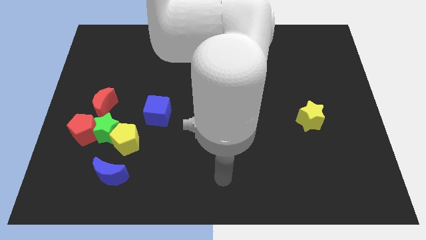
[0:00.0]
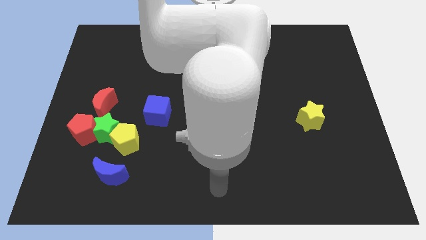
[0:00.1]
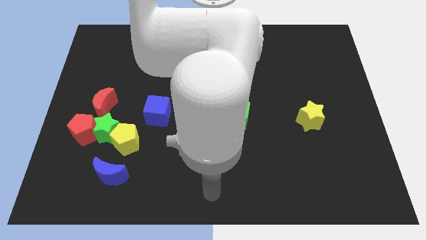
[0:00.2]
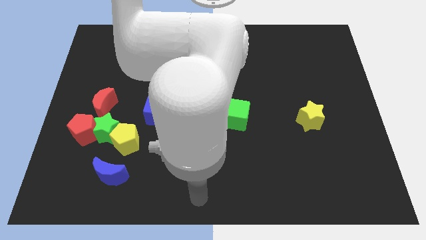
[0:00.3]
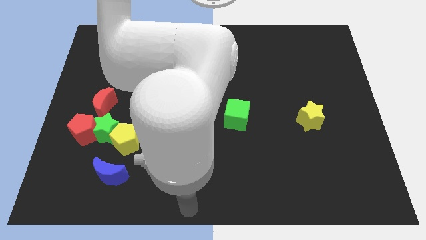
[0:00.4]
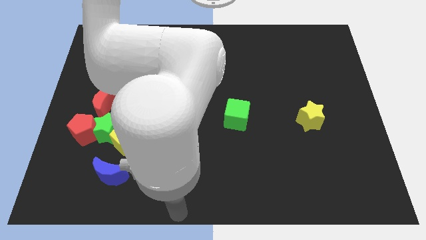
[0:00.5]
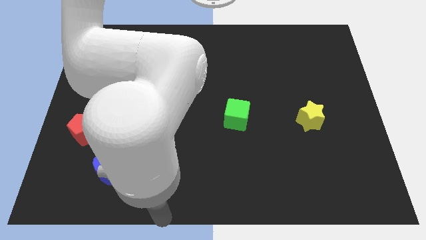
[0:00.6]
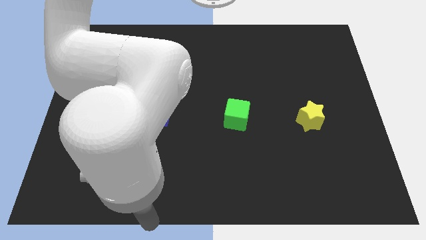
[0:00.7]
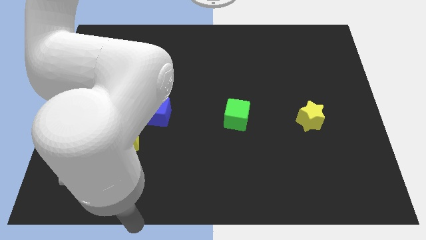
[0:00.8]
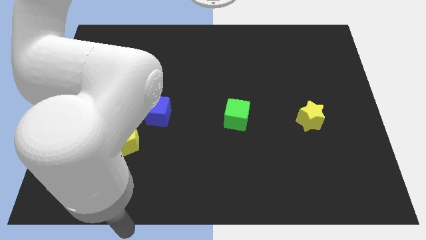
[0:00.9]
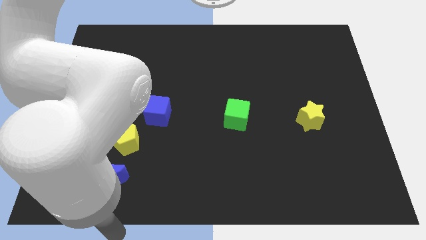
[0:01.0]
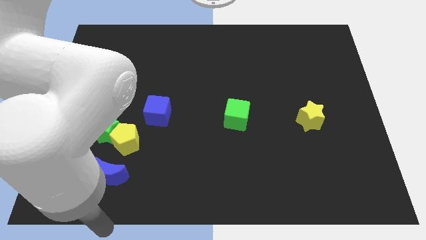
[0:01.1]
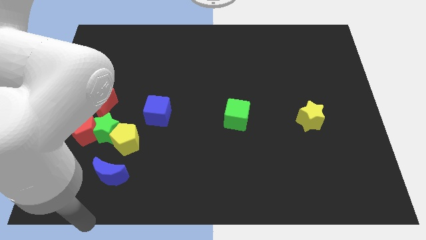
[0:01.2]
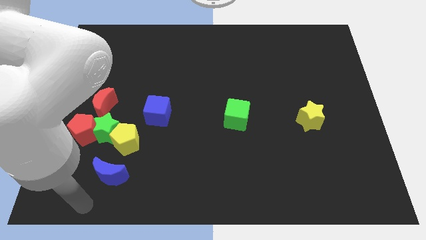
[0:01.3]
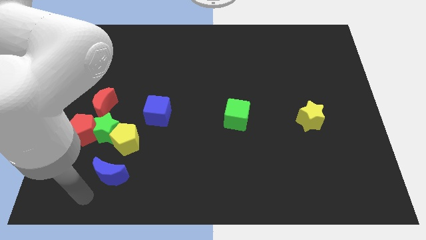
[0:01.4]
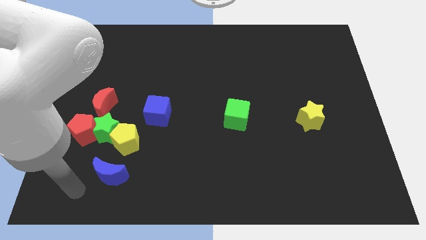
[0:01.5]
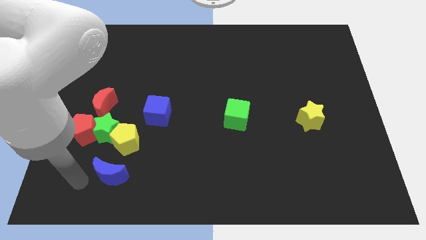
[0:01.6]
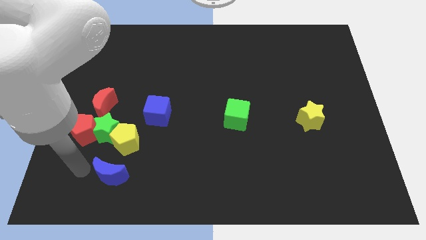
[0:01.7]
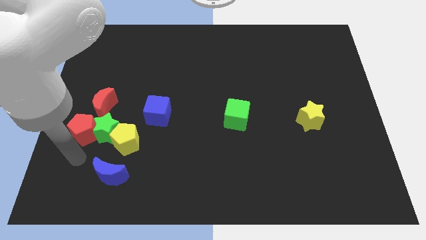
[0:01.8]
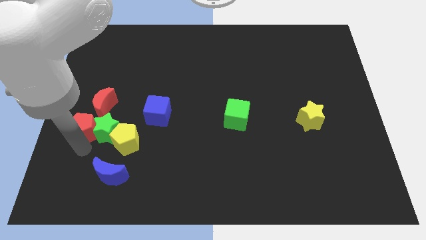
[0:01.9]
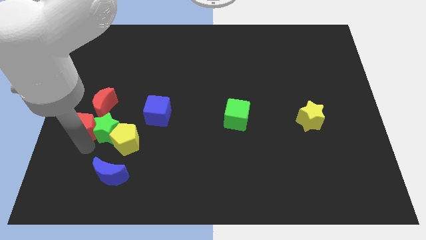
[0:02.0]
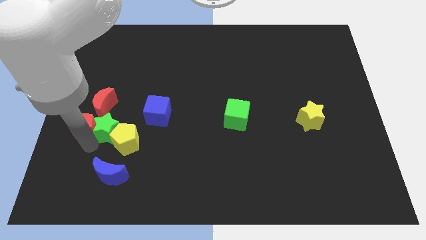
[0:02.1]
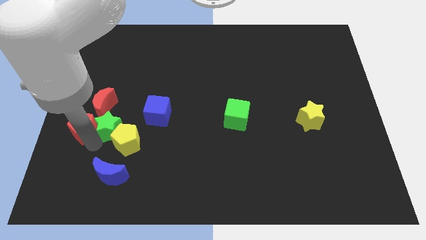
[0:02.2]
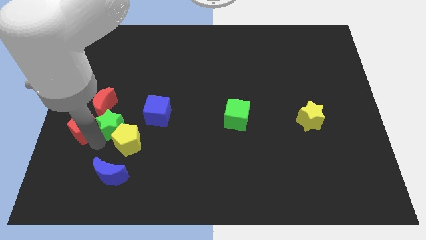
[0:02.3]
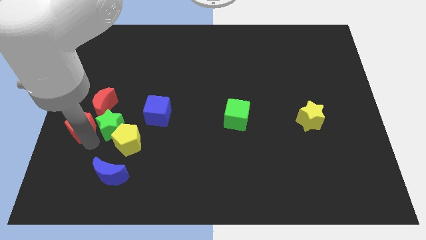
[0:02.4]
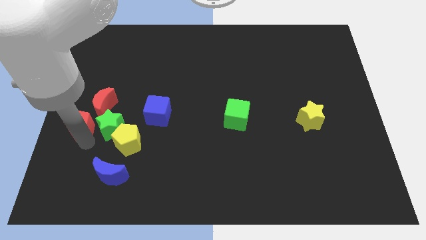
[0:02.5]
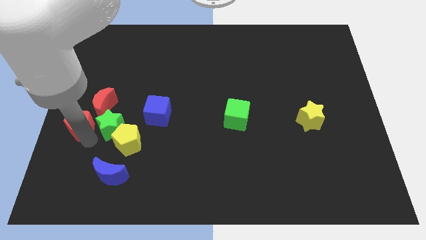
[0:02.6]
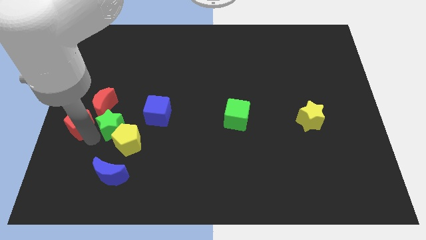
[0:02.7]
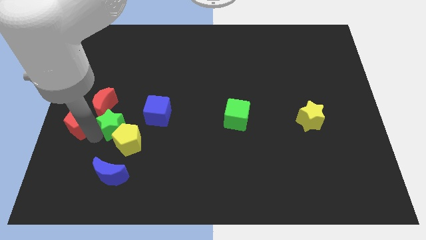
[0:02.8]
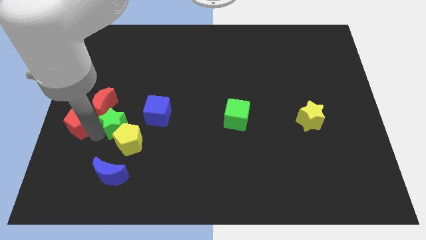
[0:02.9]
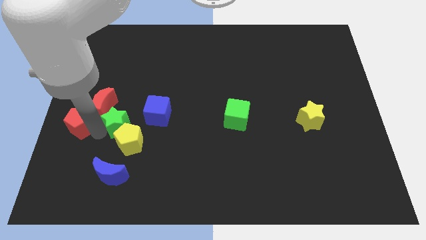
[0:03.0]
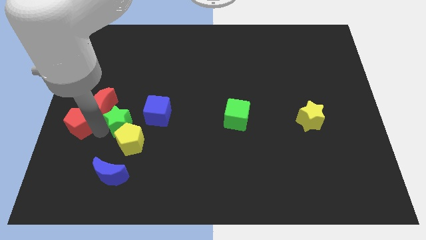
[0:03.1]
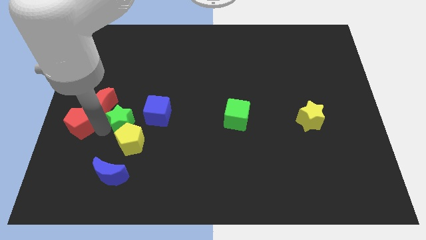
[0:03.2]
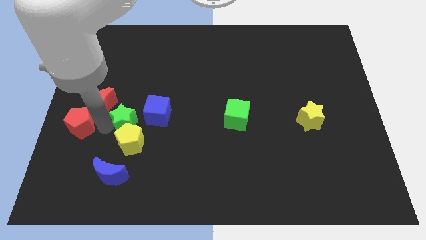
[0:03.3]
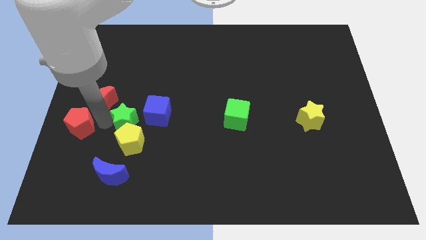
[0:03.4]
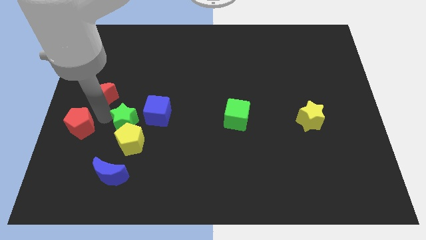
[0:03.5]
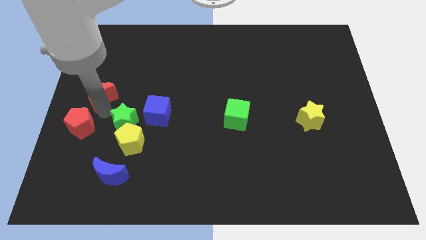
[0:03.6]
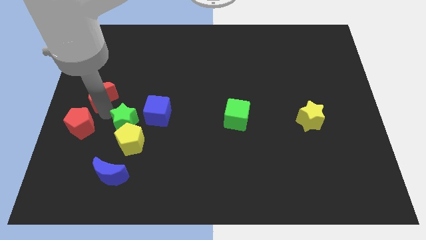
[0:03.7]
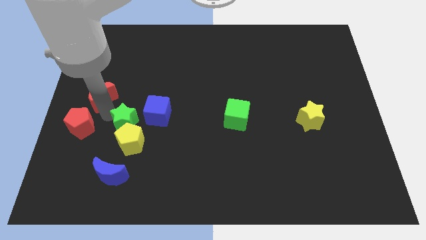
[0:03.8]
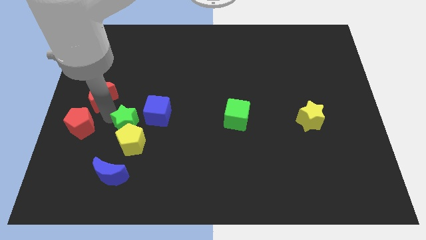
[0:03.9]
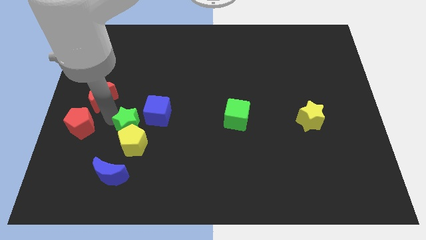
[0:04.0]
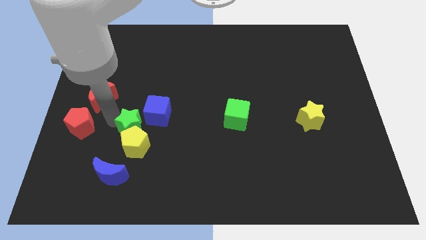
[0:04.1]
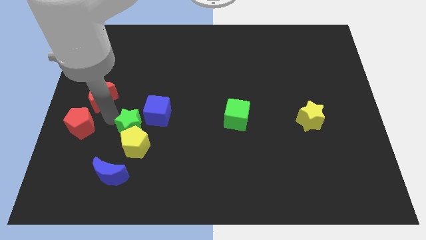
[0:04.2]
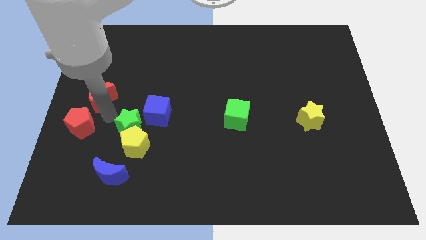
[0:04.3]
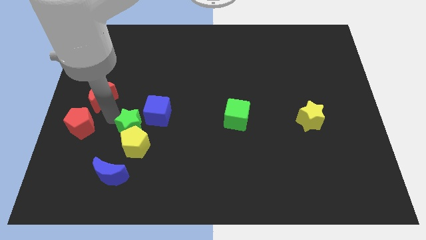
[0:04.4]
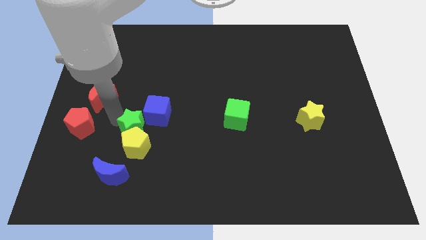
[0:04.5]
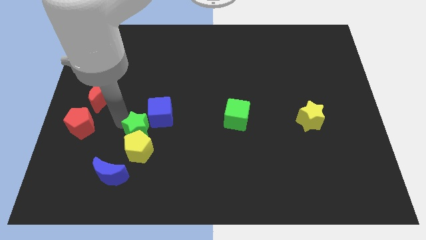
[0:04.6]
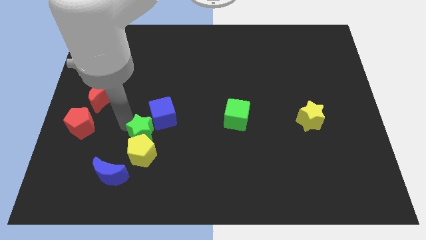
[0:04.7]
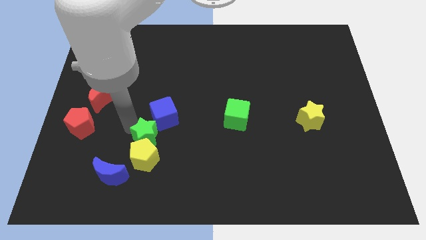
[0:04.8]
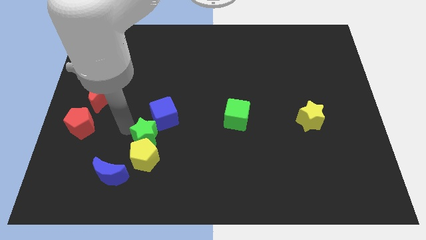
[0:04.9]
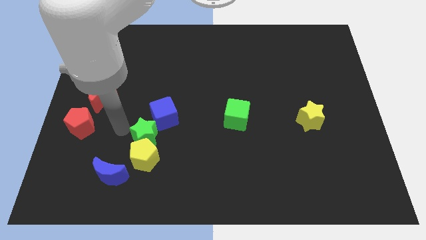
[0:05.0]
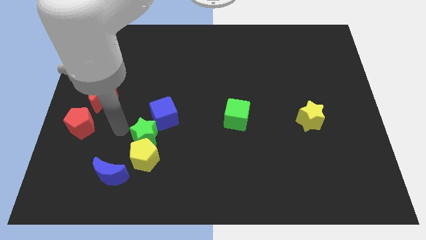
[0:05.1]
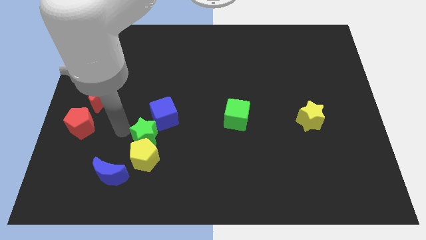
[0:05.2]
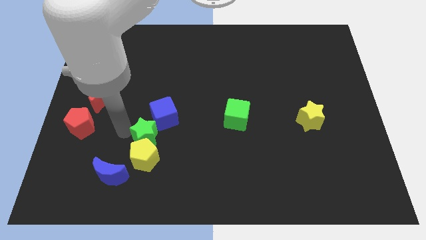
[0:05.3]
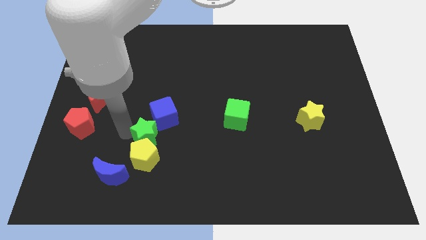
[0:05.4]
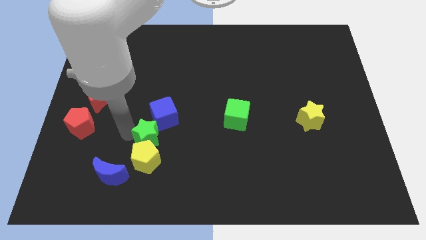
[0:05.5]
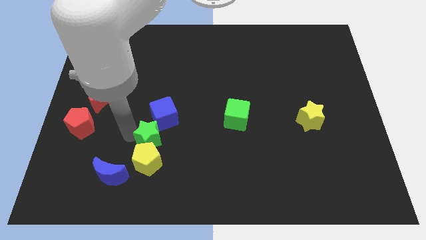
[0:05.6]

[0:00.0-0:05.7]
pull the green star apart from the group

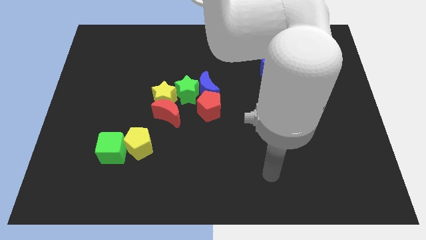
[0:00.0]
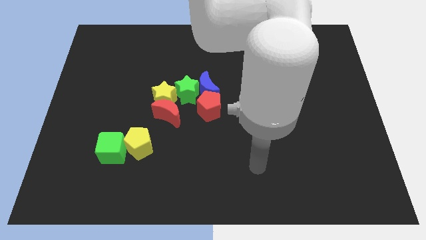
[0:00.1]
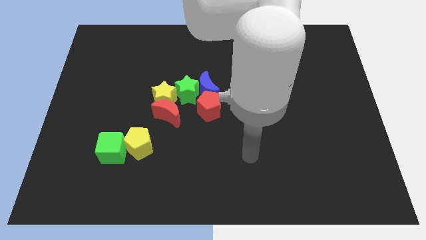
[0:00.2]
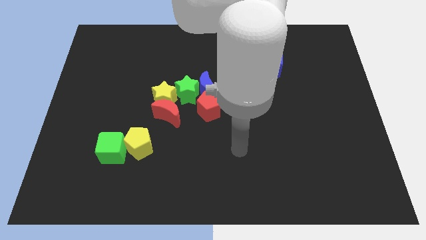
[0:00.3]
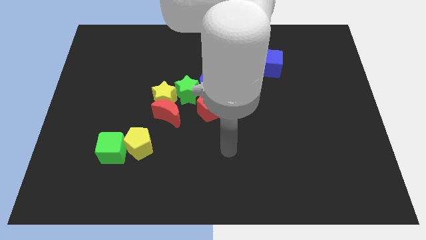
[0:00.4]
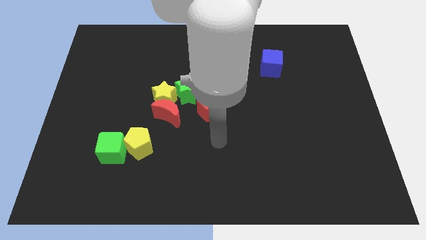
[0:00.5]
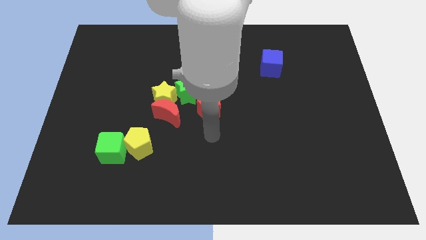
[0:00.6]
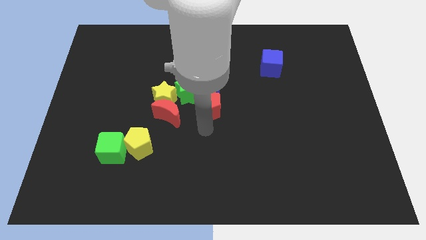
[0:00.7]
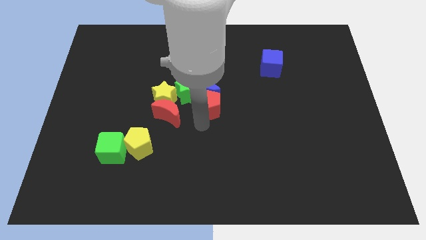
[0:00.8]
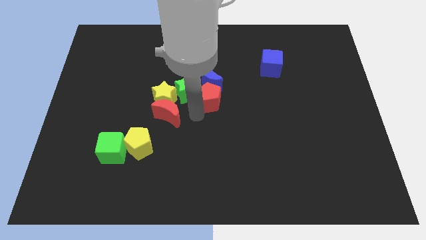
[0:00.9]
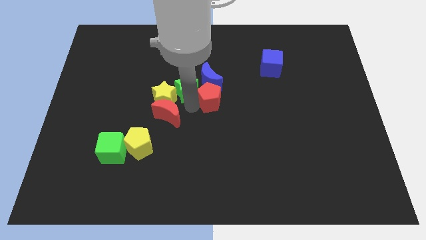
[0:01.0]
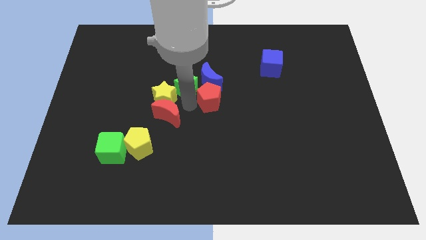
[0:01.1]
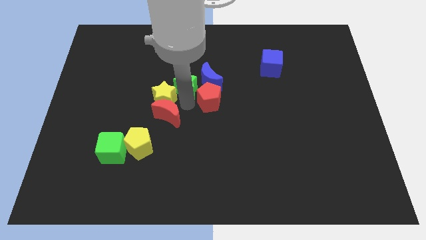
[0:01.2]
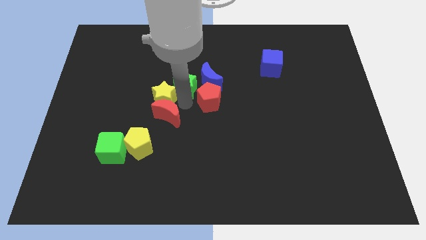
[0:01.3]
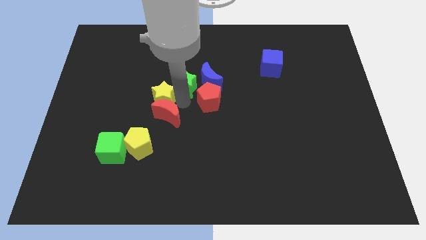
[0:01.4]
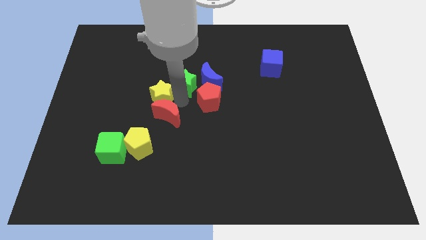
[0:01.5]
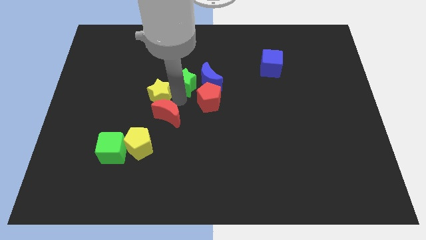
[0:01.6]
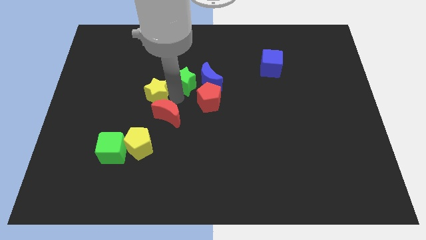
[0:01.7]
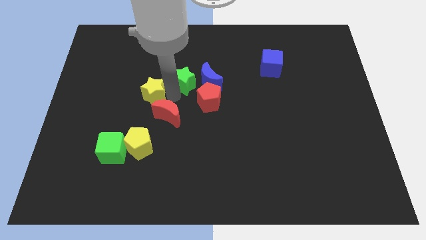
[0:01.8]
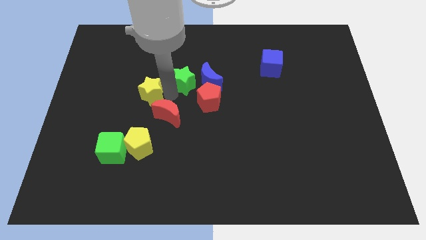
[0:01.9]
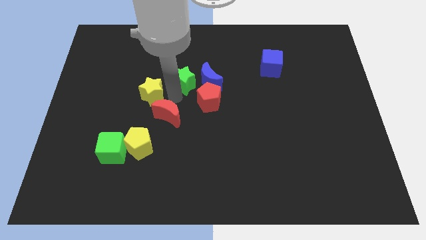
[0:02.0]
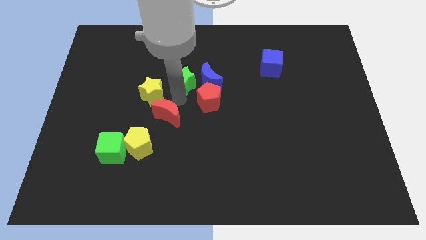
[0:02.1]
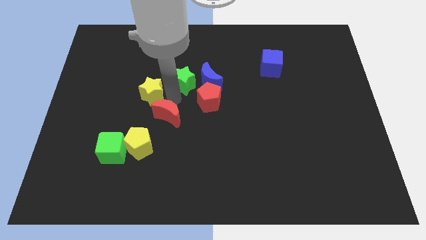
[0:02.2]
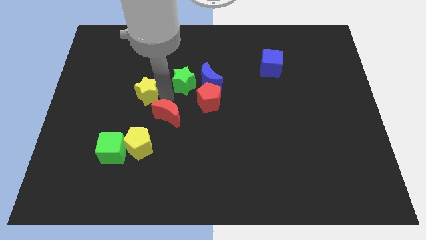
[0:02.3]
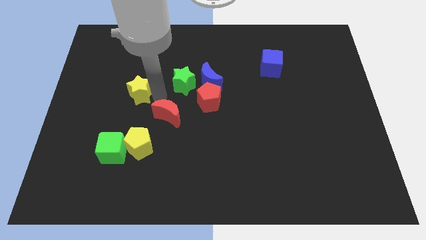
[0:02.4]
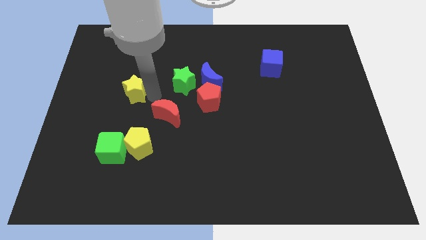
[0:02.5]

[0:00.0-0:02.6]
separate the yellow star from the red moon and green star

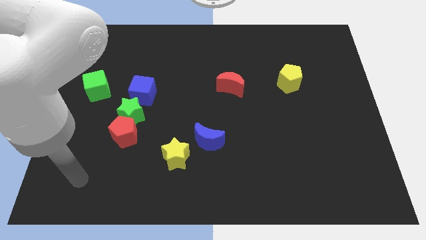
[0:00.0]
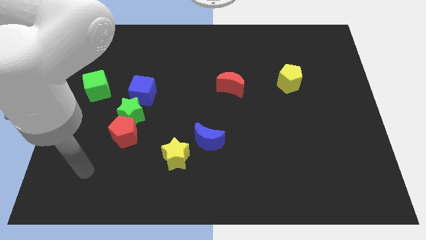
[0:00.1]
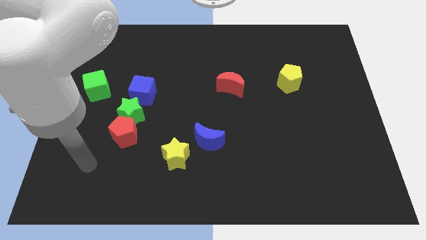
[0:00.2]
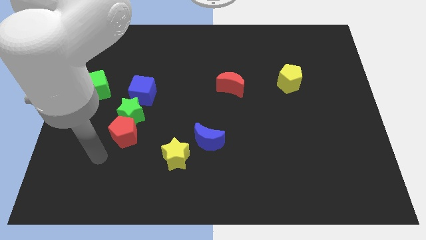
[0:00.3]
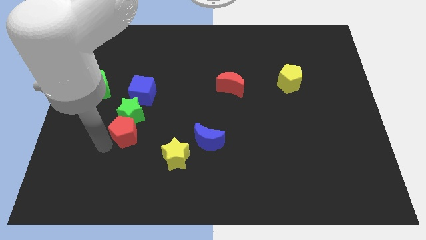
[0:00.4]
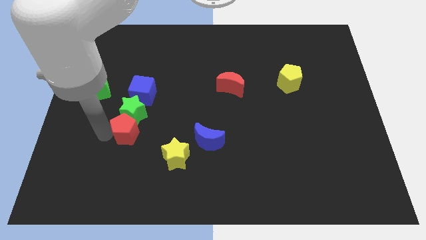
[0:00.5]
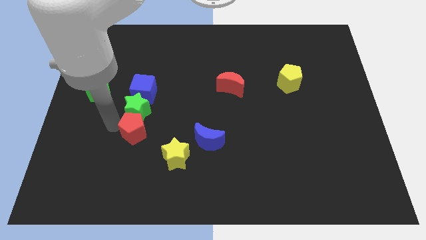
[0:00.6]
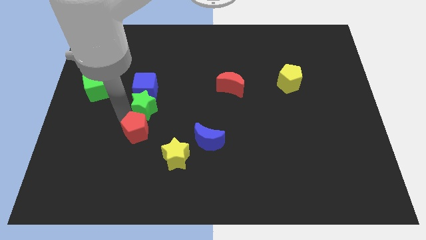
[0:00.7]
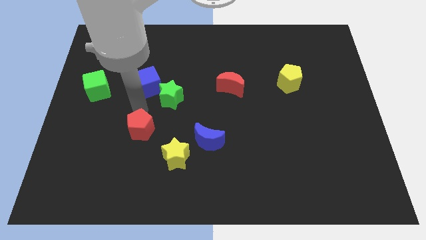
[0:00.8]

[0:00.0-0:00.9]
pull the red pentagon apart from the green star

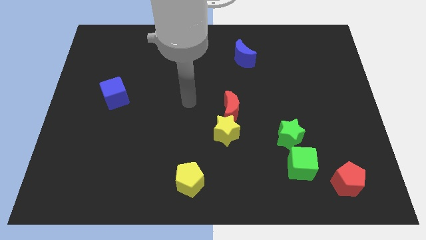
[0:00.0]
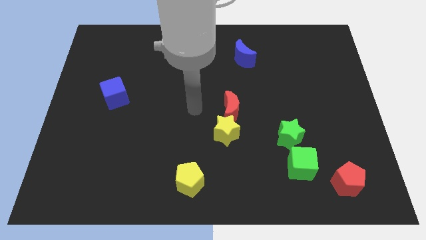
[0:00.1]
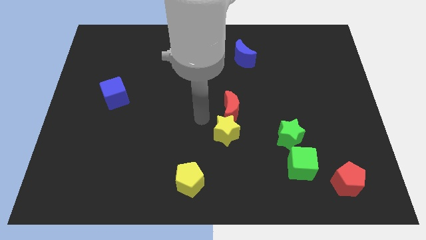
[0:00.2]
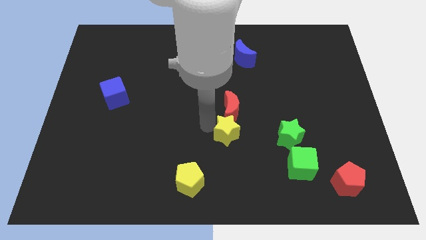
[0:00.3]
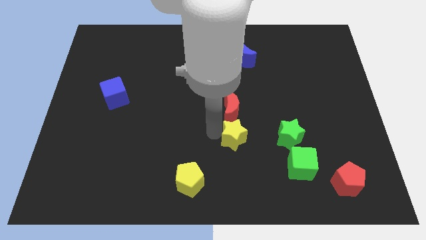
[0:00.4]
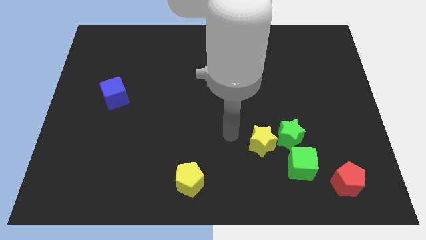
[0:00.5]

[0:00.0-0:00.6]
move the red moon away from the yellow star
